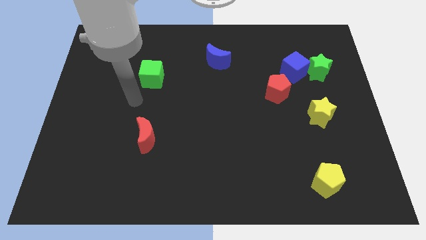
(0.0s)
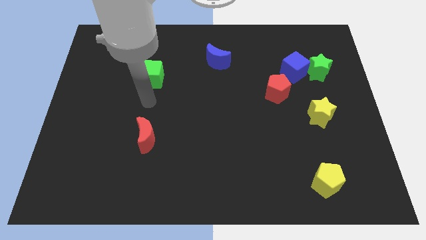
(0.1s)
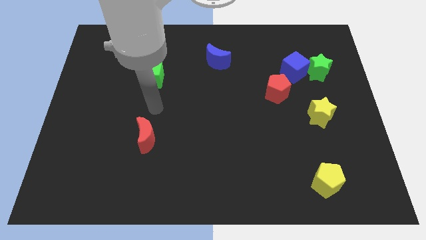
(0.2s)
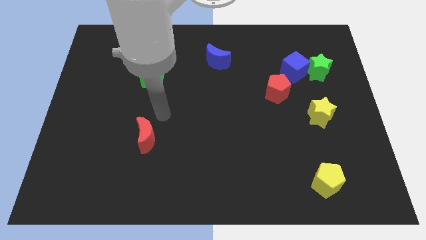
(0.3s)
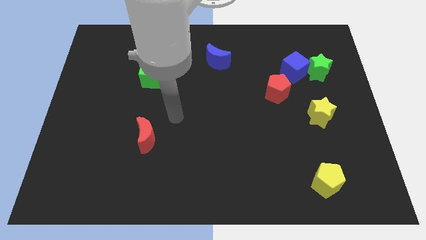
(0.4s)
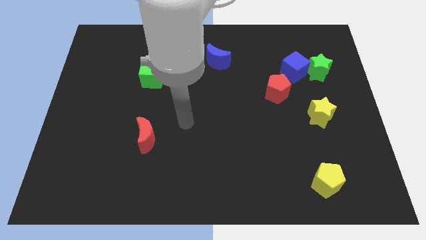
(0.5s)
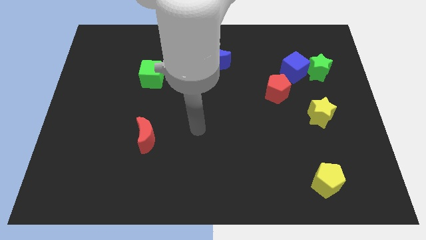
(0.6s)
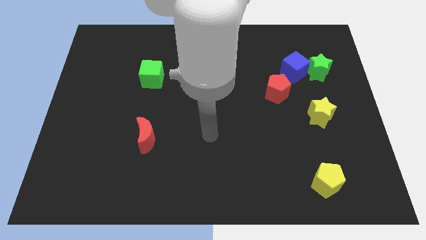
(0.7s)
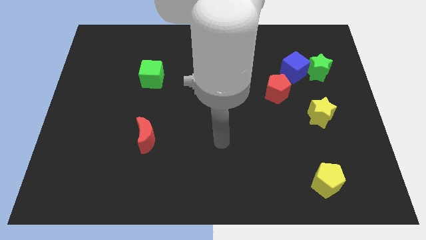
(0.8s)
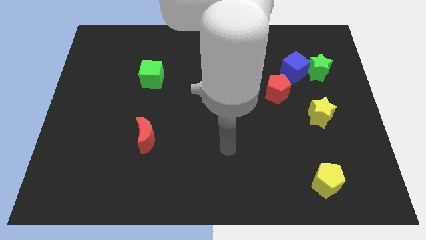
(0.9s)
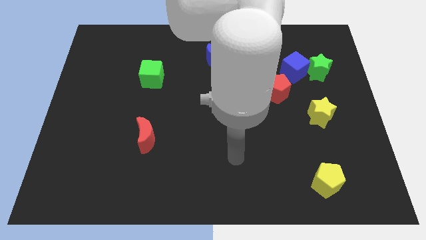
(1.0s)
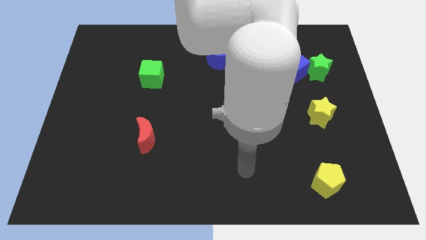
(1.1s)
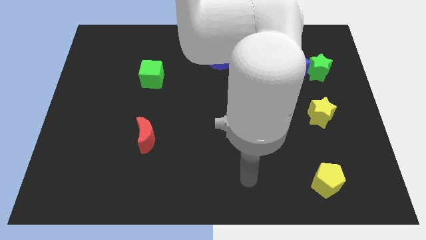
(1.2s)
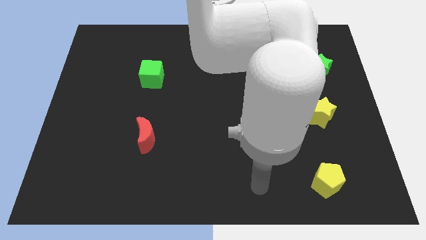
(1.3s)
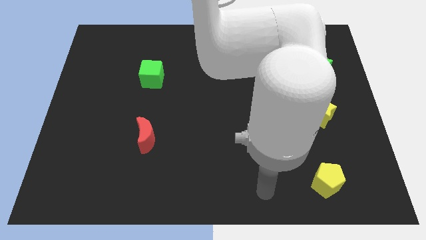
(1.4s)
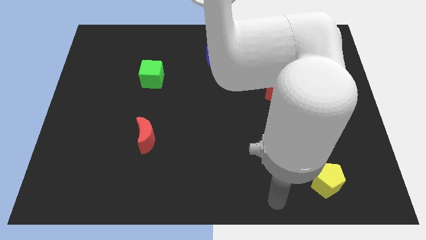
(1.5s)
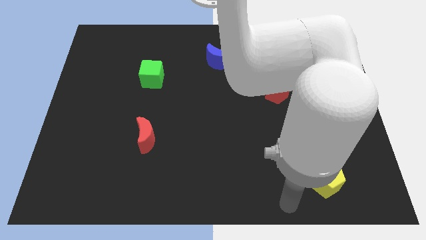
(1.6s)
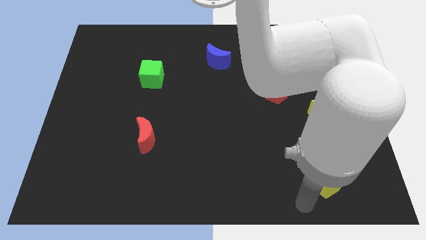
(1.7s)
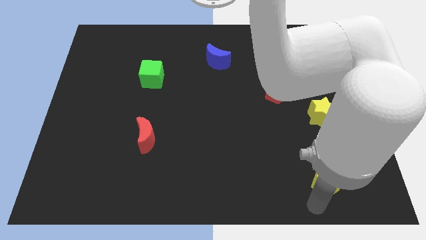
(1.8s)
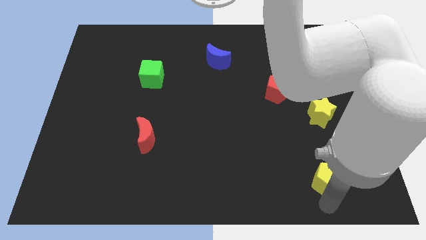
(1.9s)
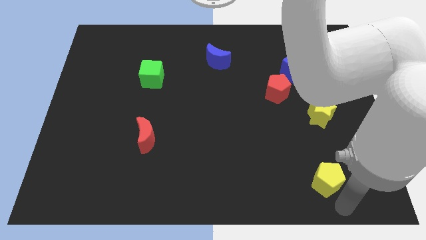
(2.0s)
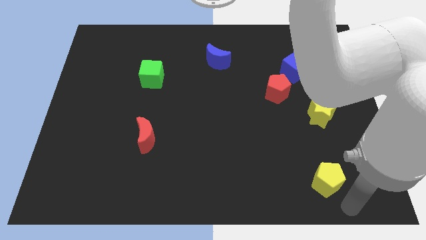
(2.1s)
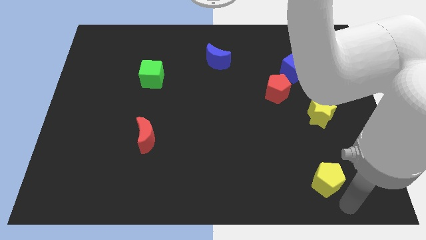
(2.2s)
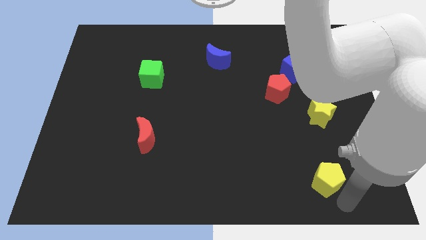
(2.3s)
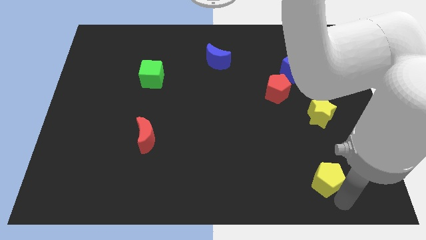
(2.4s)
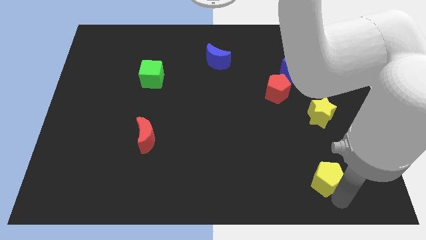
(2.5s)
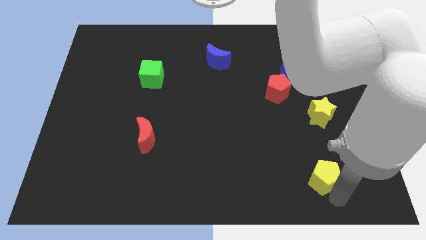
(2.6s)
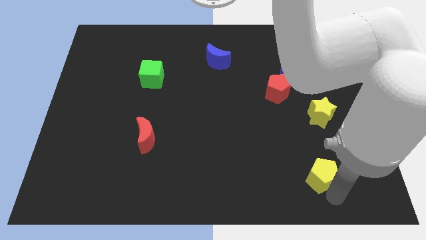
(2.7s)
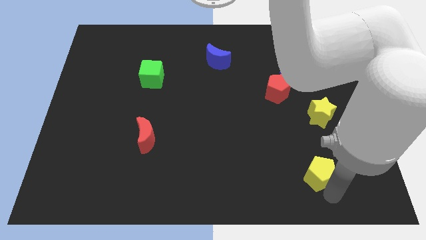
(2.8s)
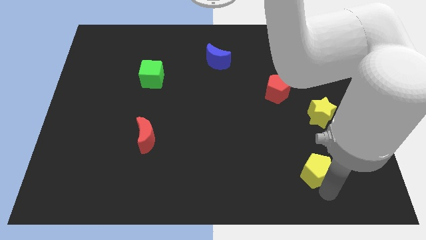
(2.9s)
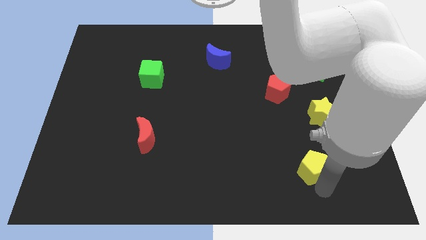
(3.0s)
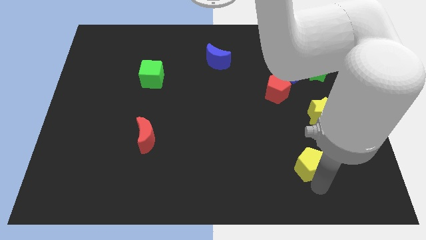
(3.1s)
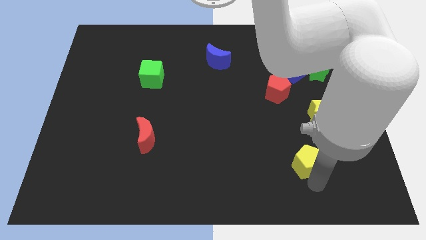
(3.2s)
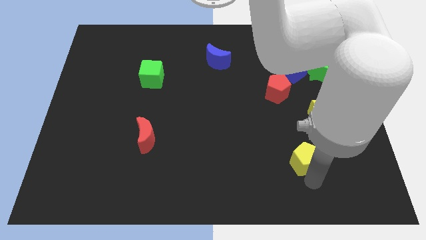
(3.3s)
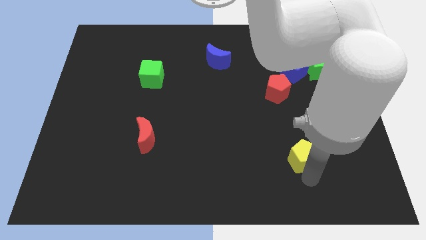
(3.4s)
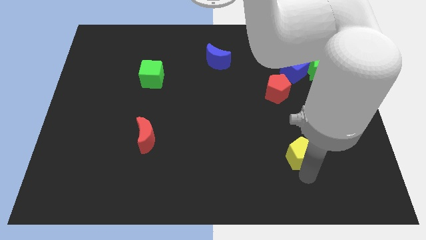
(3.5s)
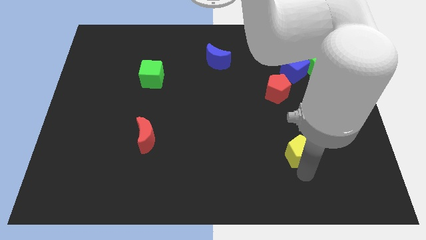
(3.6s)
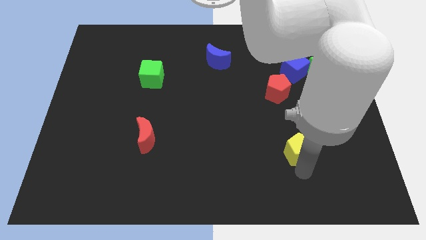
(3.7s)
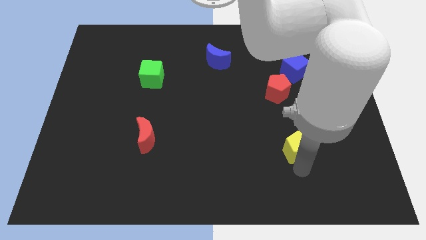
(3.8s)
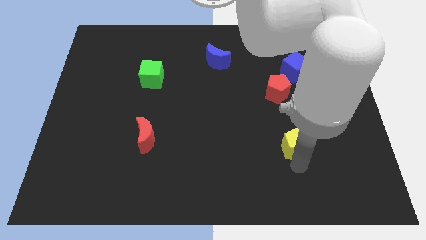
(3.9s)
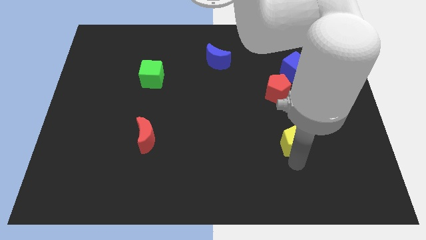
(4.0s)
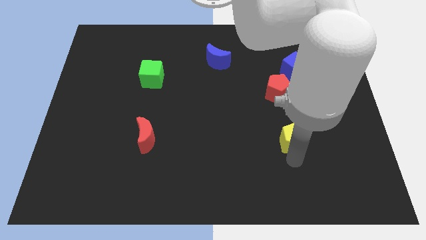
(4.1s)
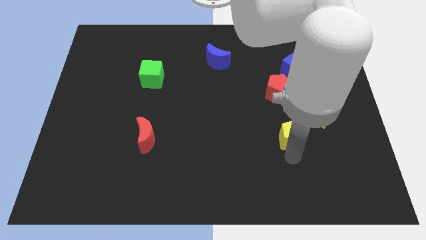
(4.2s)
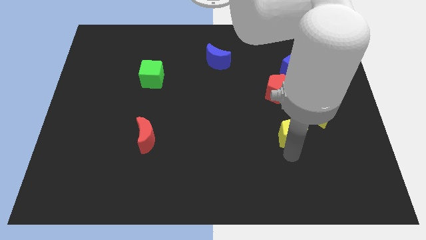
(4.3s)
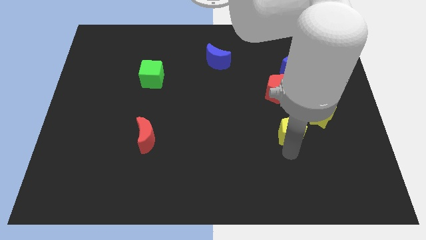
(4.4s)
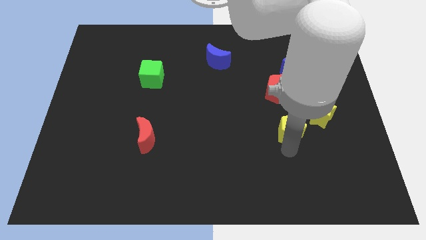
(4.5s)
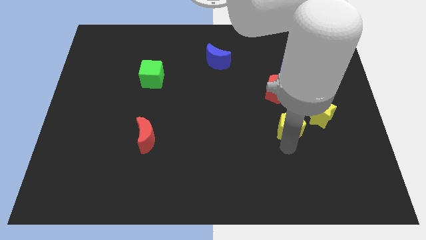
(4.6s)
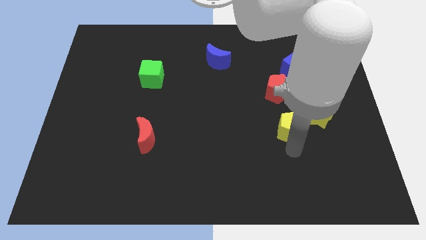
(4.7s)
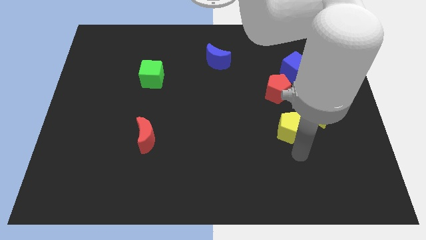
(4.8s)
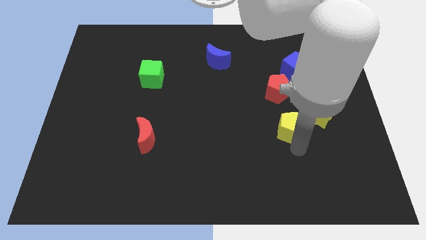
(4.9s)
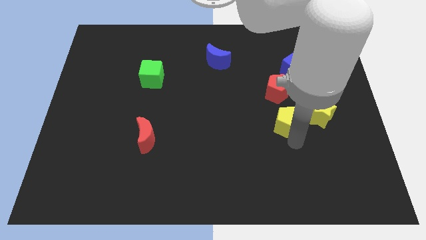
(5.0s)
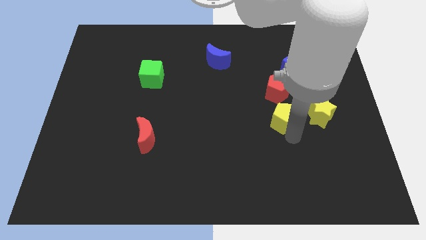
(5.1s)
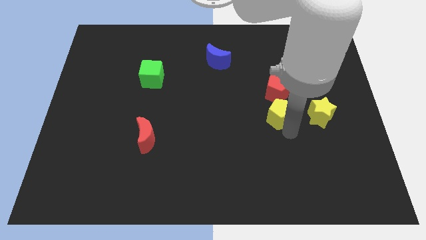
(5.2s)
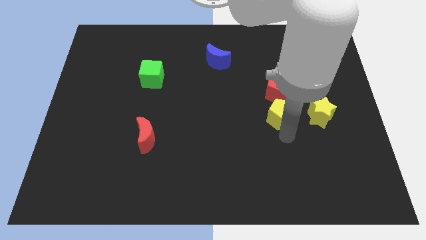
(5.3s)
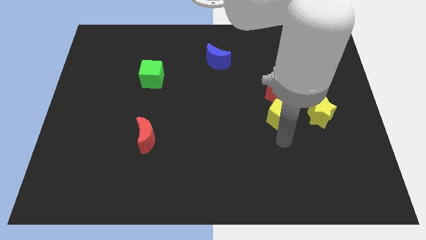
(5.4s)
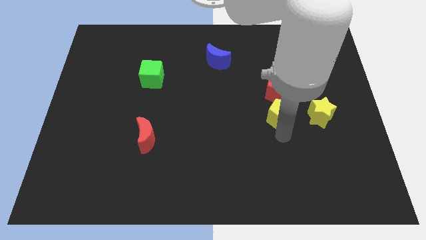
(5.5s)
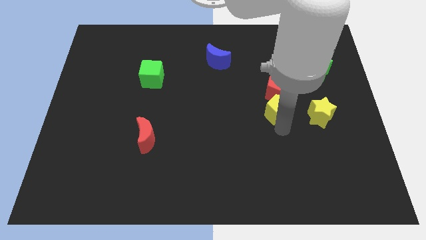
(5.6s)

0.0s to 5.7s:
move the yellow pentagon towards the red pentagon

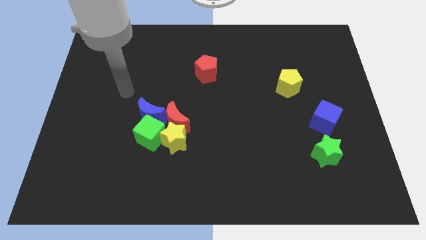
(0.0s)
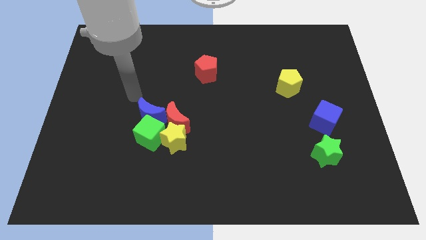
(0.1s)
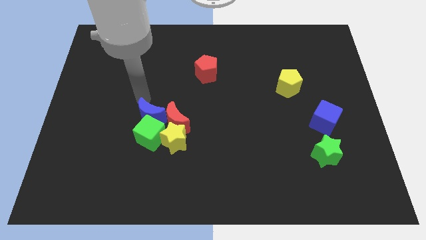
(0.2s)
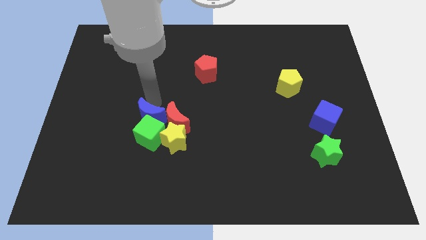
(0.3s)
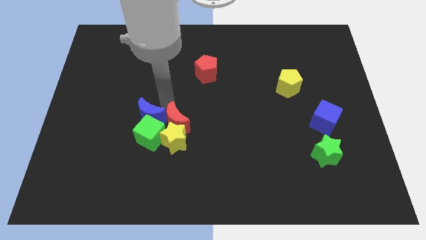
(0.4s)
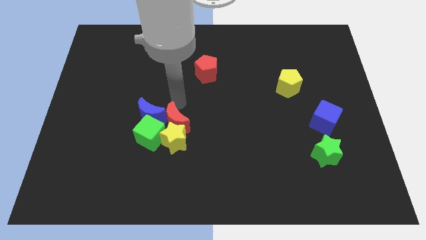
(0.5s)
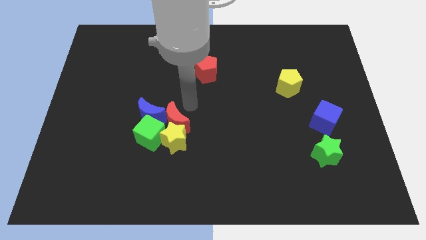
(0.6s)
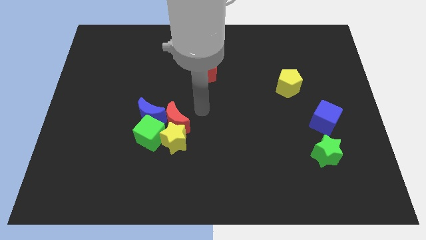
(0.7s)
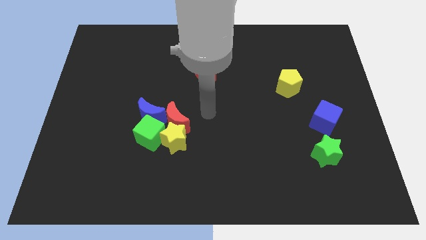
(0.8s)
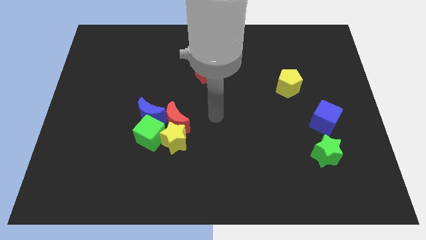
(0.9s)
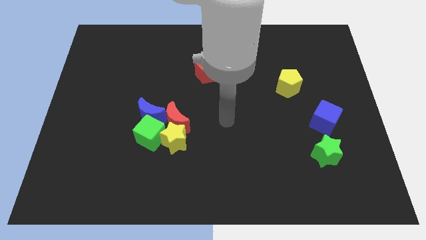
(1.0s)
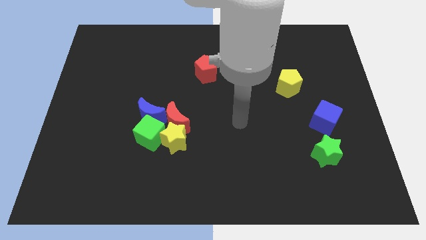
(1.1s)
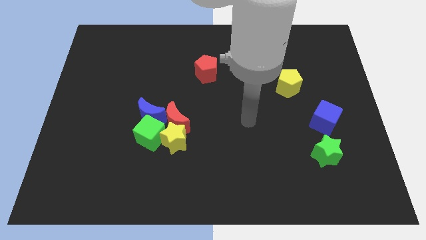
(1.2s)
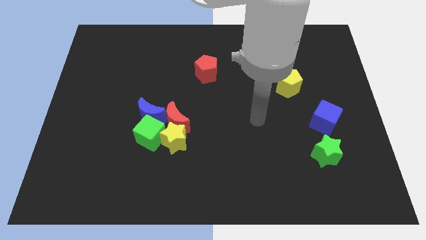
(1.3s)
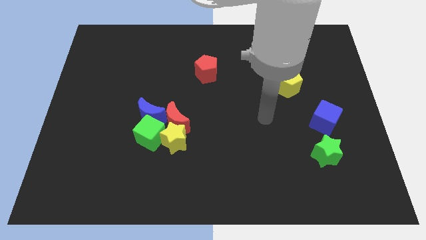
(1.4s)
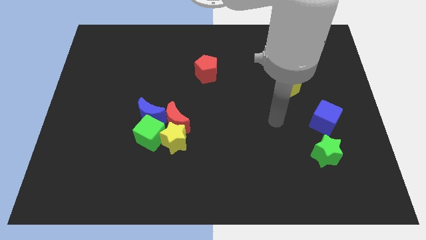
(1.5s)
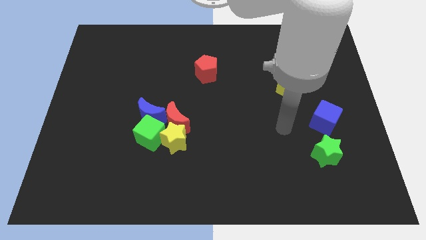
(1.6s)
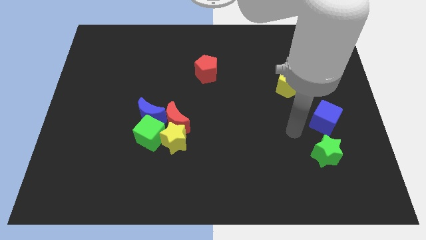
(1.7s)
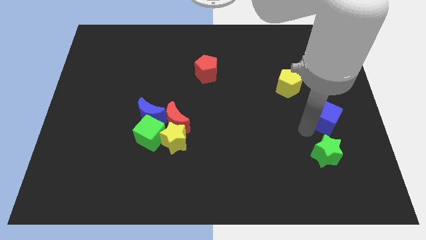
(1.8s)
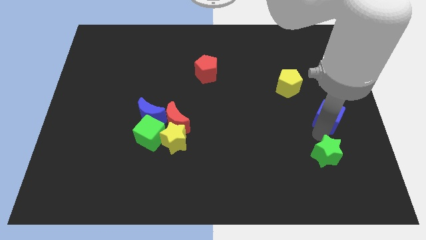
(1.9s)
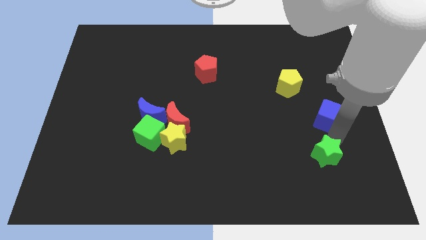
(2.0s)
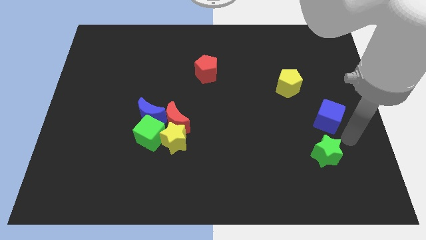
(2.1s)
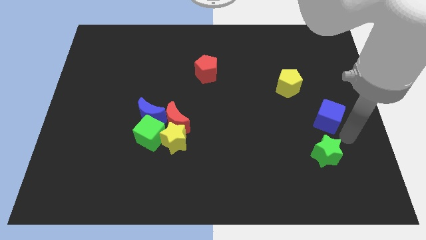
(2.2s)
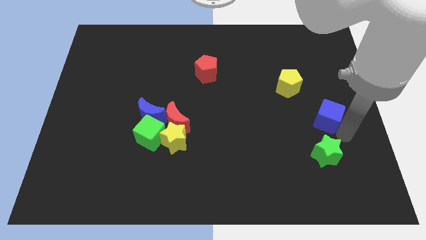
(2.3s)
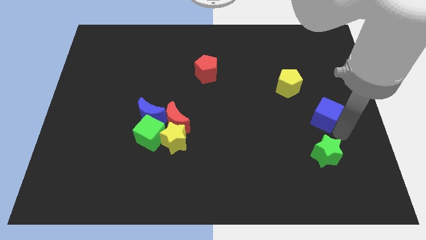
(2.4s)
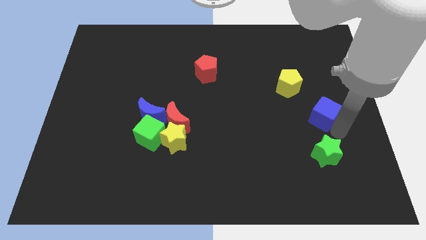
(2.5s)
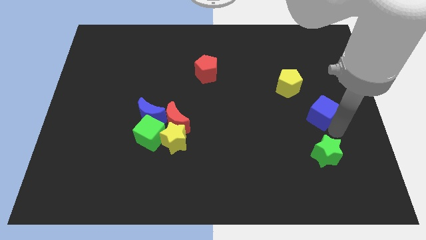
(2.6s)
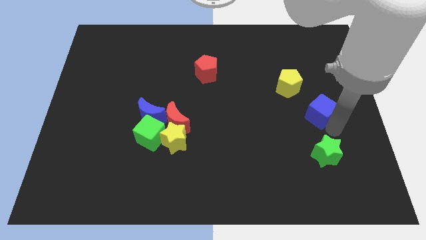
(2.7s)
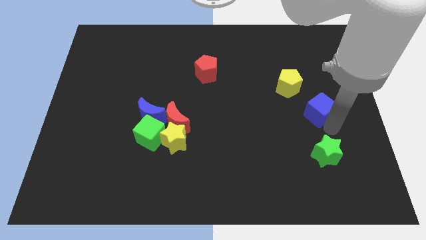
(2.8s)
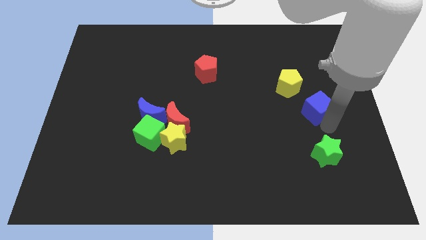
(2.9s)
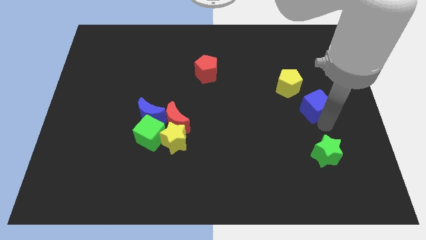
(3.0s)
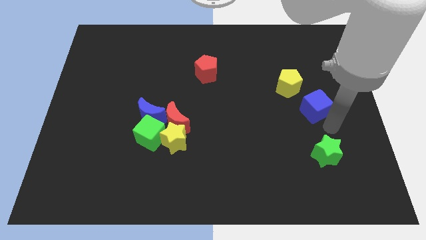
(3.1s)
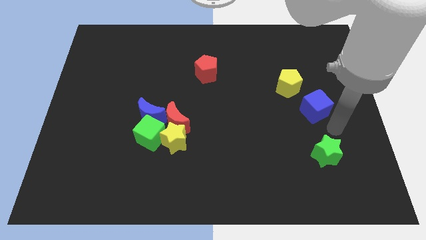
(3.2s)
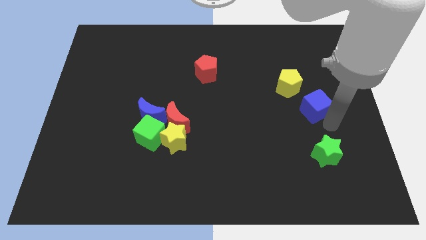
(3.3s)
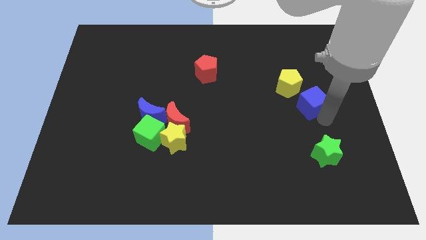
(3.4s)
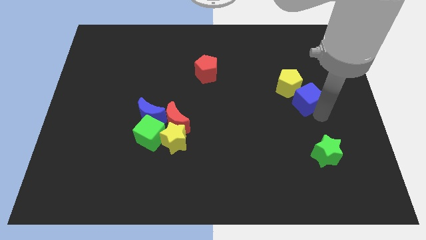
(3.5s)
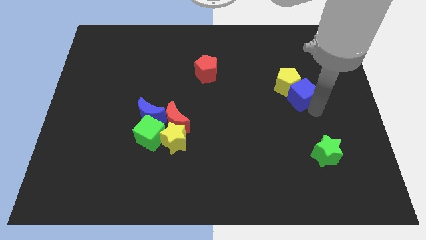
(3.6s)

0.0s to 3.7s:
slide the blue cube to the yellow pentagon
